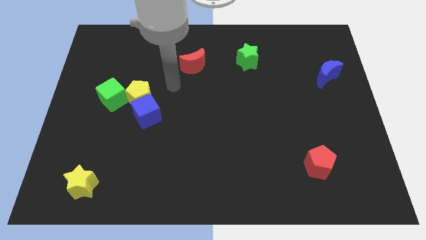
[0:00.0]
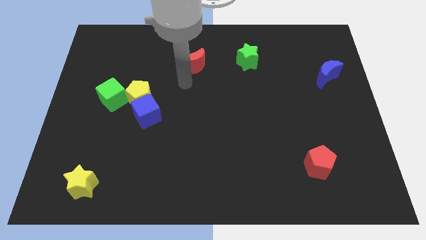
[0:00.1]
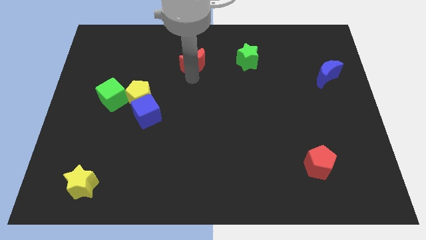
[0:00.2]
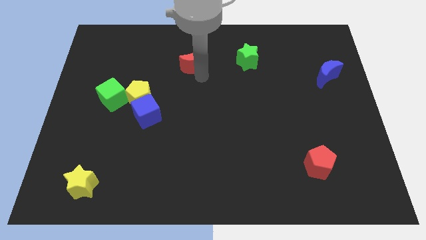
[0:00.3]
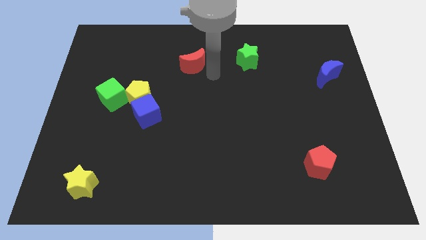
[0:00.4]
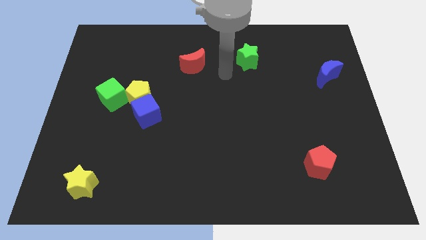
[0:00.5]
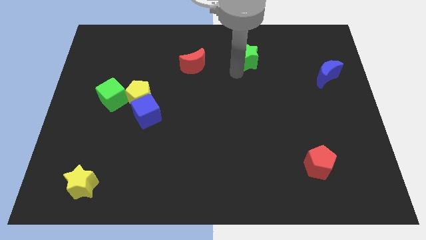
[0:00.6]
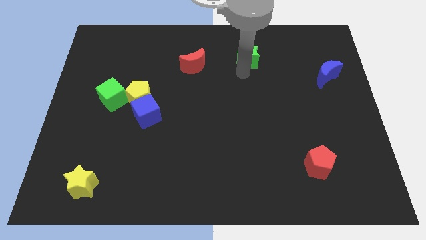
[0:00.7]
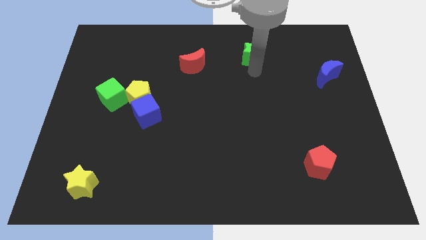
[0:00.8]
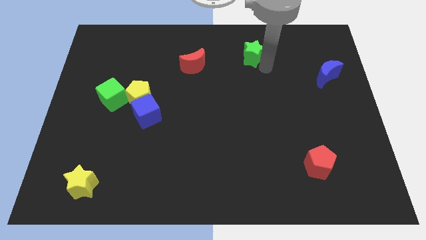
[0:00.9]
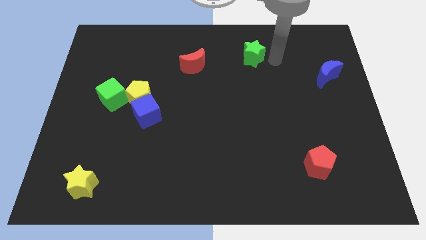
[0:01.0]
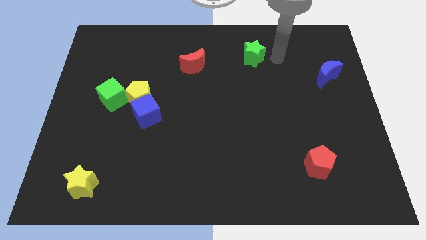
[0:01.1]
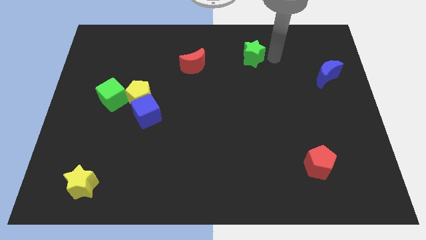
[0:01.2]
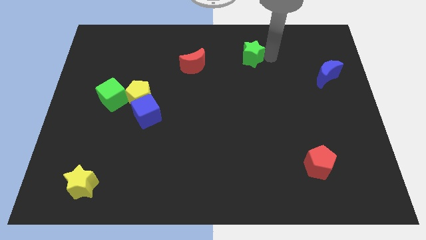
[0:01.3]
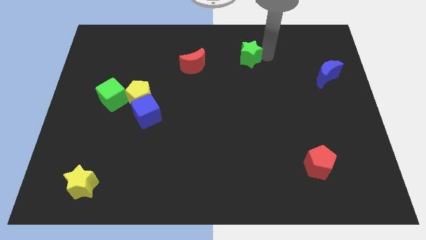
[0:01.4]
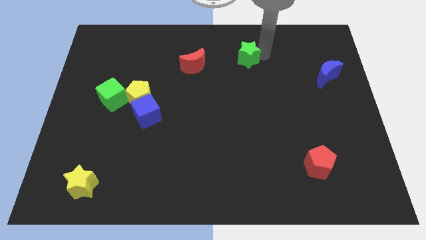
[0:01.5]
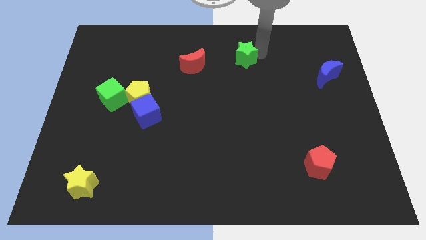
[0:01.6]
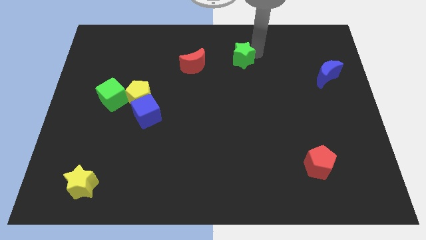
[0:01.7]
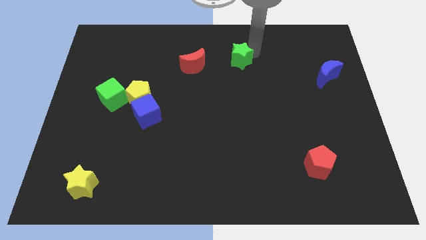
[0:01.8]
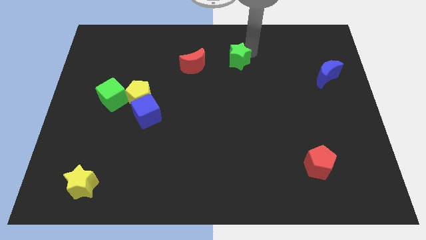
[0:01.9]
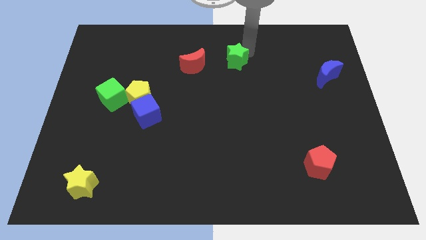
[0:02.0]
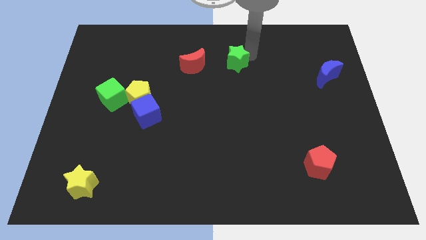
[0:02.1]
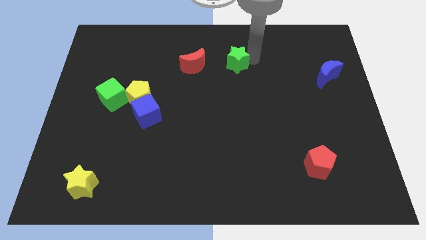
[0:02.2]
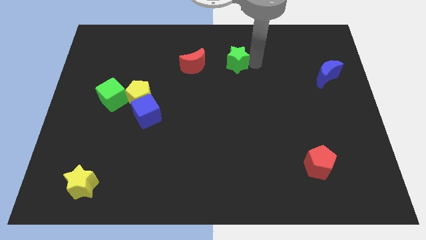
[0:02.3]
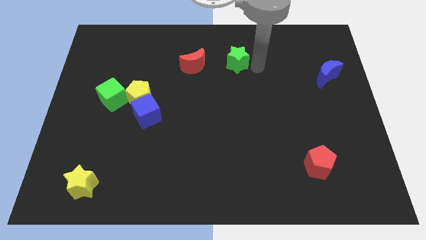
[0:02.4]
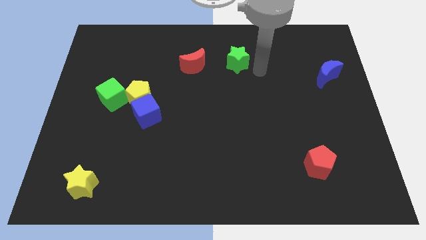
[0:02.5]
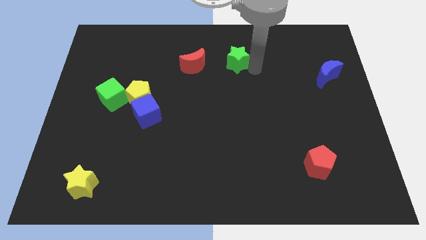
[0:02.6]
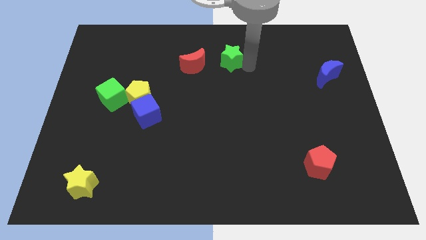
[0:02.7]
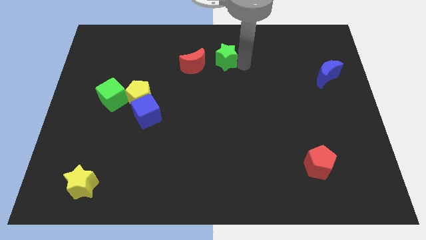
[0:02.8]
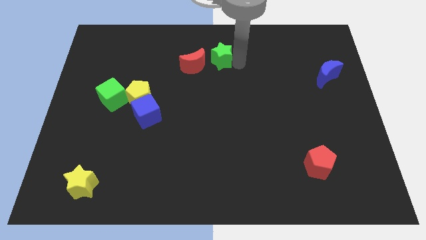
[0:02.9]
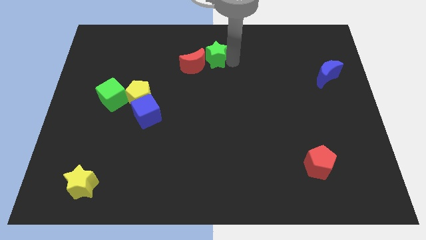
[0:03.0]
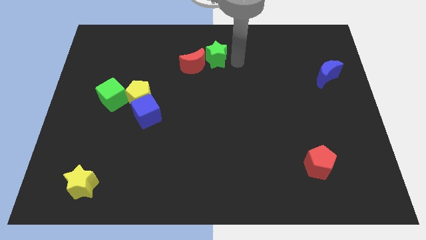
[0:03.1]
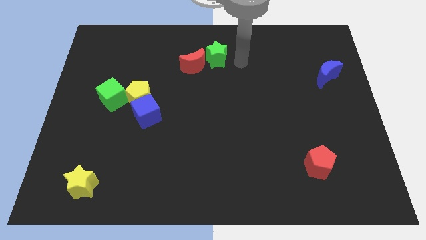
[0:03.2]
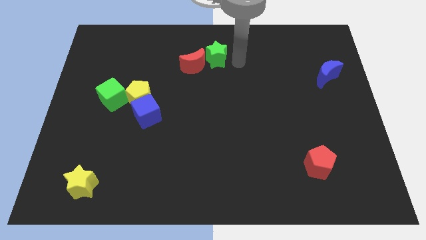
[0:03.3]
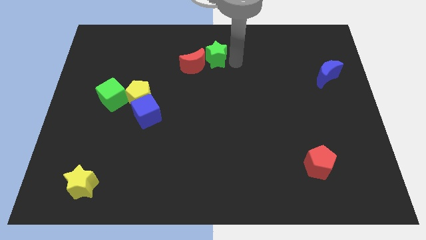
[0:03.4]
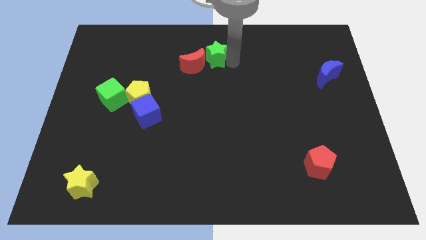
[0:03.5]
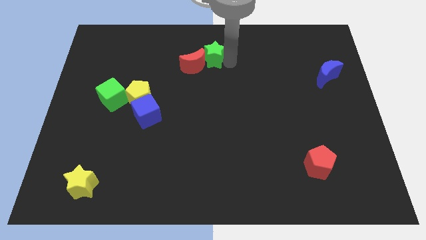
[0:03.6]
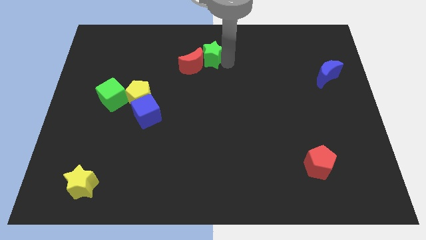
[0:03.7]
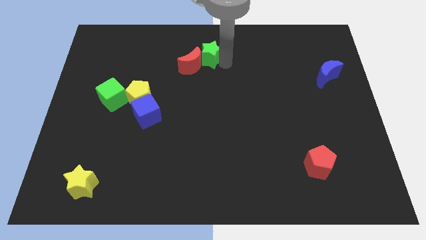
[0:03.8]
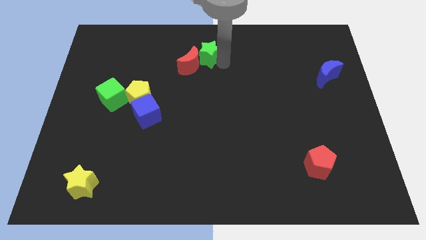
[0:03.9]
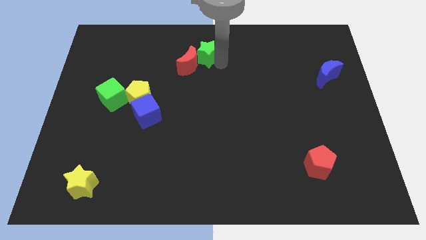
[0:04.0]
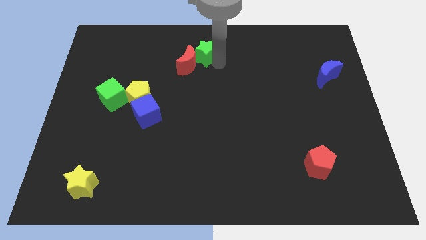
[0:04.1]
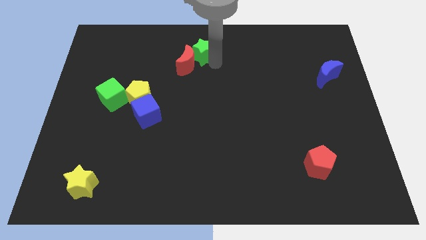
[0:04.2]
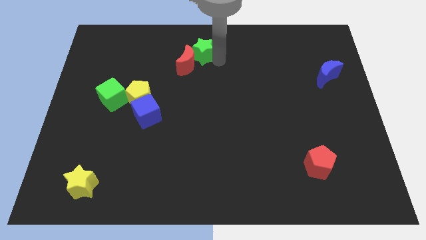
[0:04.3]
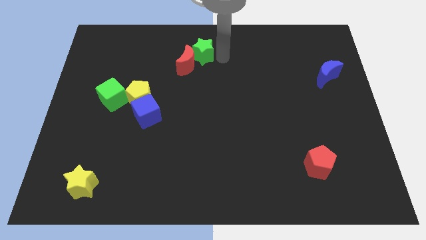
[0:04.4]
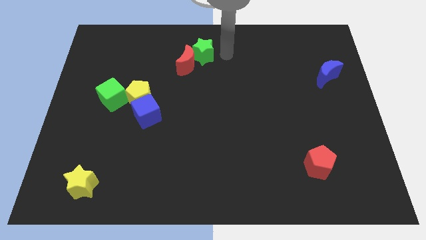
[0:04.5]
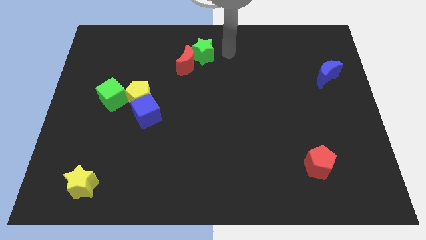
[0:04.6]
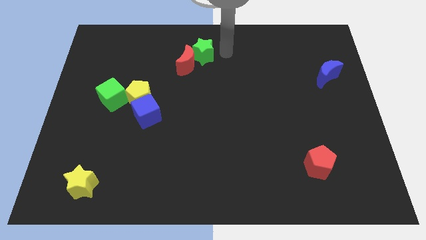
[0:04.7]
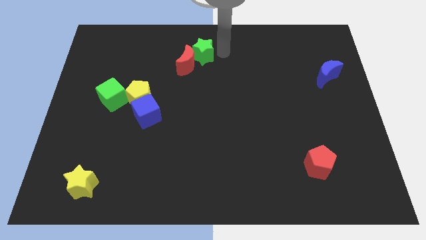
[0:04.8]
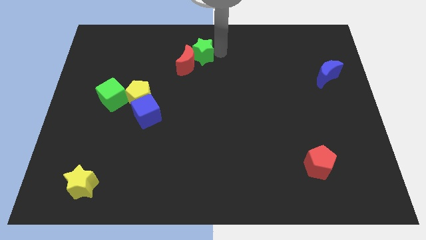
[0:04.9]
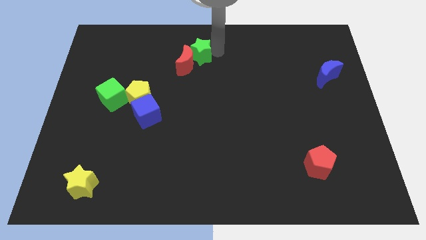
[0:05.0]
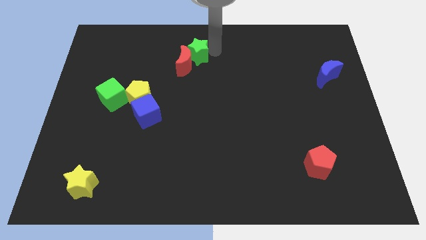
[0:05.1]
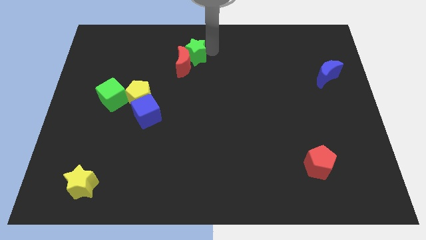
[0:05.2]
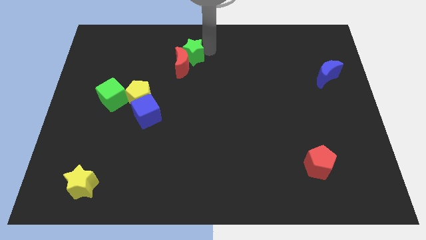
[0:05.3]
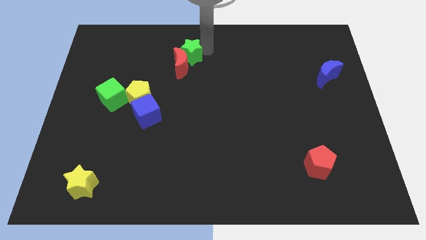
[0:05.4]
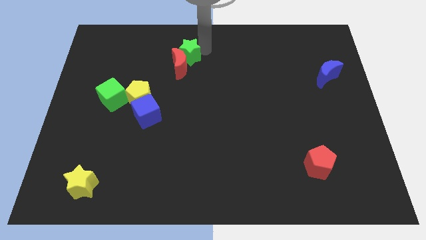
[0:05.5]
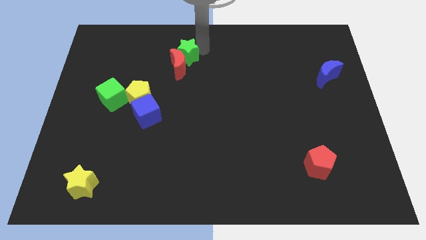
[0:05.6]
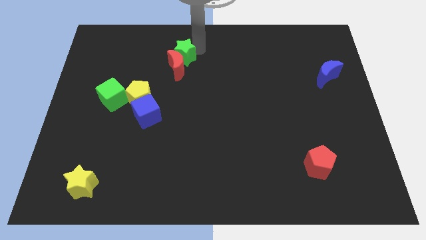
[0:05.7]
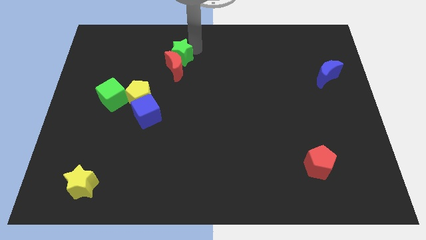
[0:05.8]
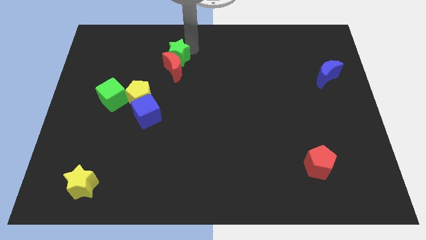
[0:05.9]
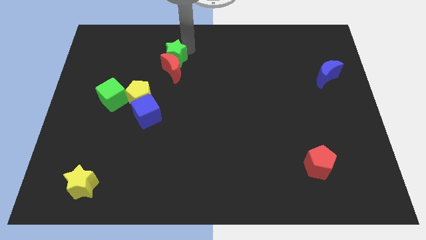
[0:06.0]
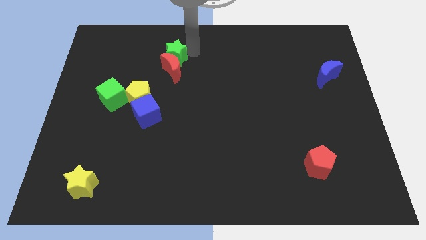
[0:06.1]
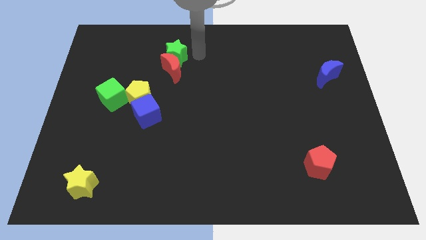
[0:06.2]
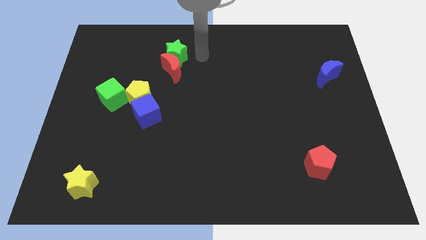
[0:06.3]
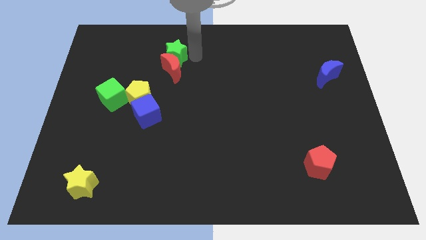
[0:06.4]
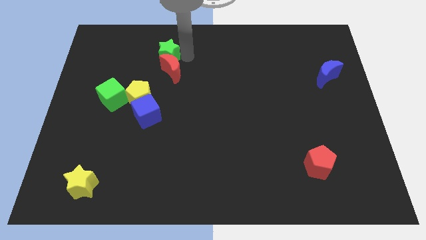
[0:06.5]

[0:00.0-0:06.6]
move the green star left

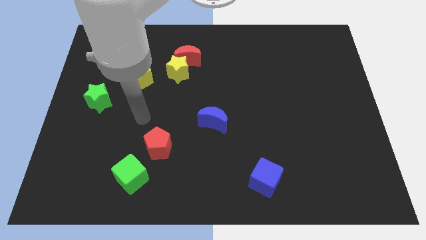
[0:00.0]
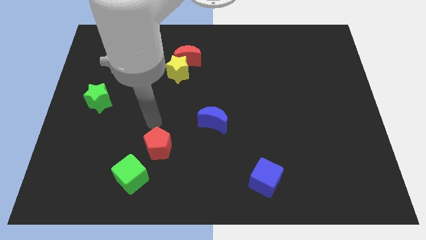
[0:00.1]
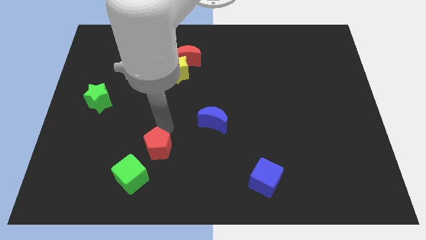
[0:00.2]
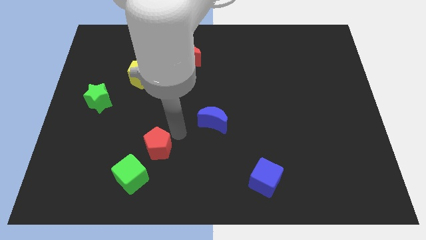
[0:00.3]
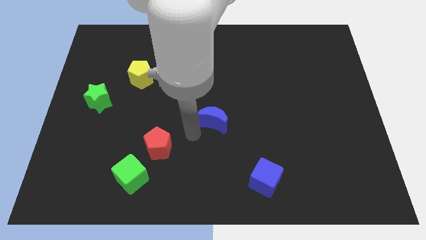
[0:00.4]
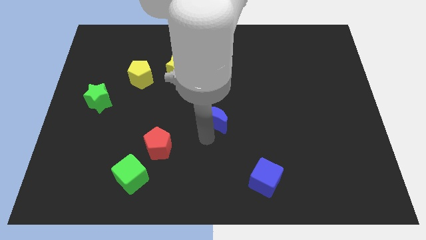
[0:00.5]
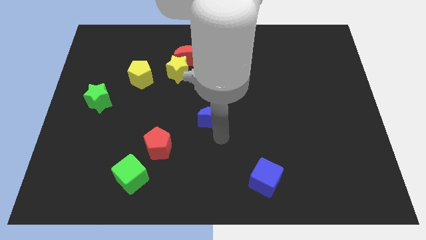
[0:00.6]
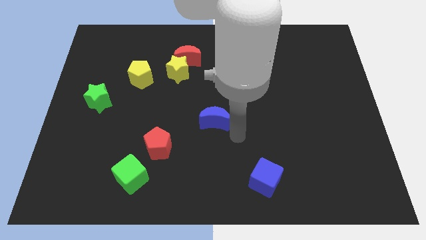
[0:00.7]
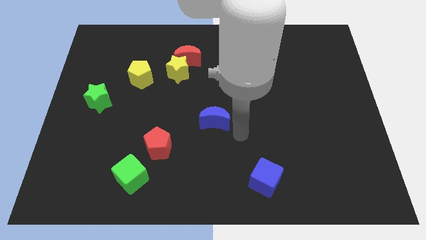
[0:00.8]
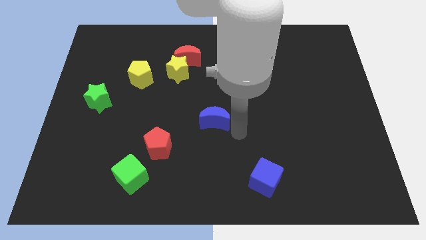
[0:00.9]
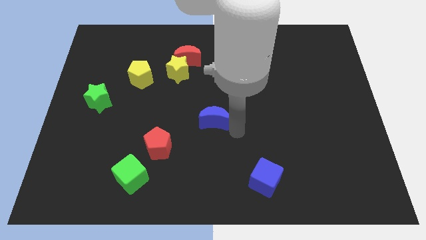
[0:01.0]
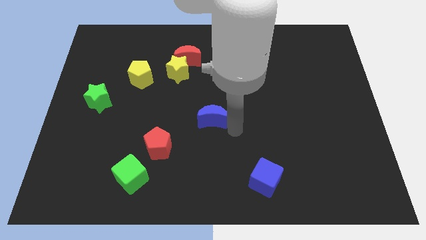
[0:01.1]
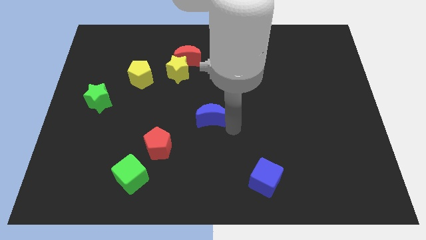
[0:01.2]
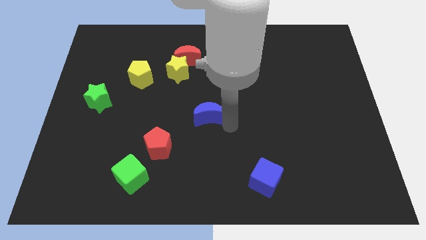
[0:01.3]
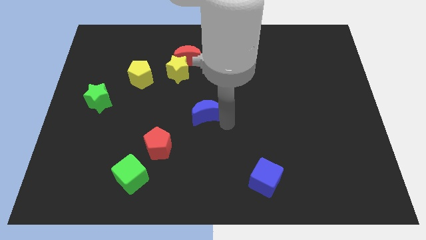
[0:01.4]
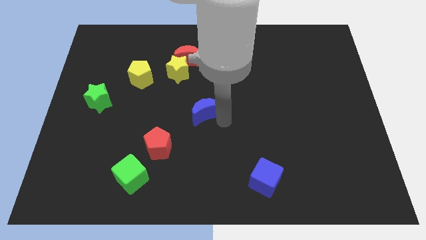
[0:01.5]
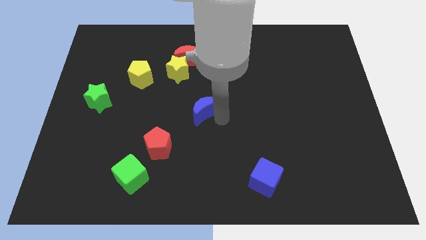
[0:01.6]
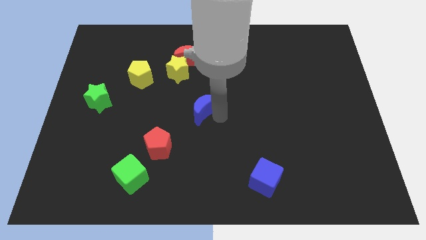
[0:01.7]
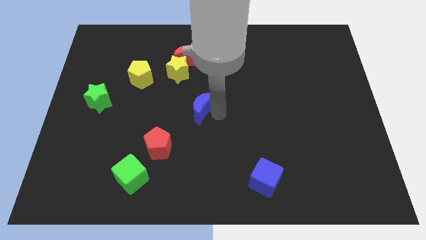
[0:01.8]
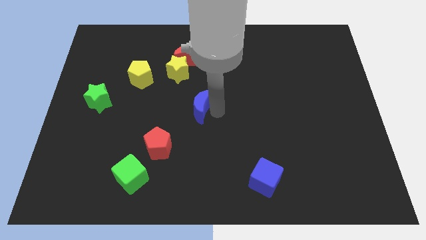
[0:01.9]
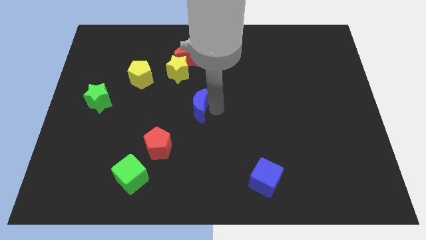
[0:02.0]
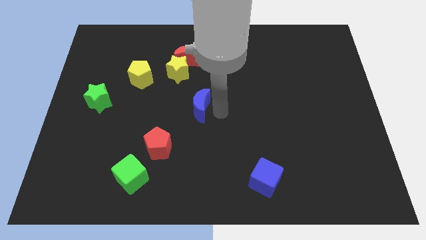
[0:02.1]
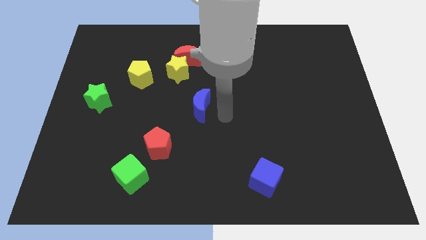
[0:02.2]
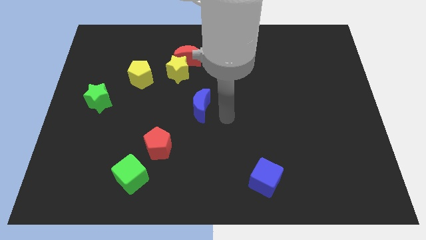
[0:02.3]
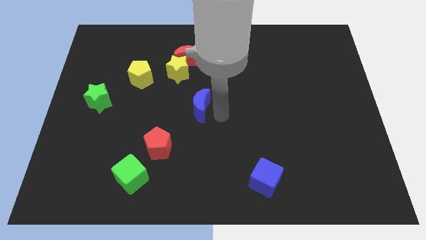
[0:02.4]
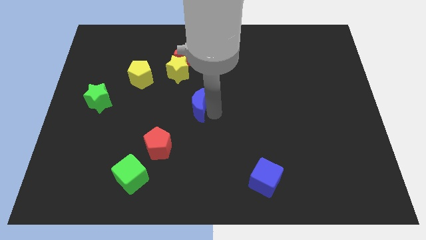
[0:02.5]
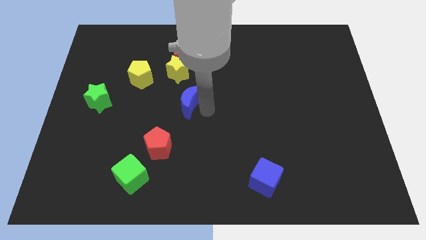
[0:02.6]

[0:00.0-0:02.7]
slightly push the blue moon upwards and left
